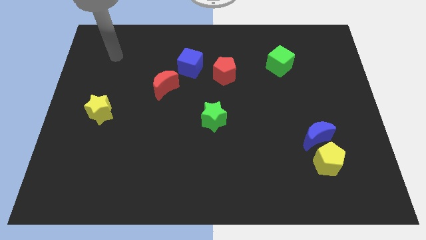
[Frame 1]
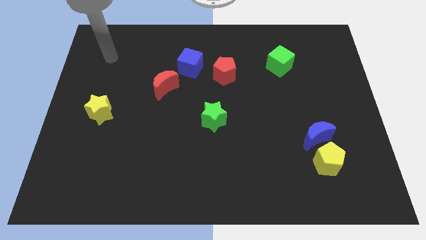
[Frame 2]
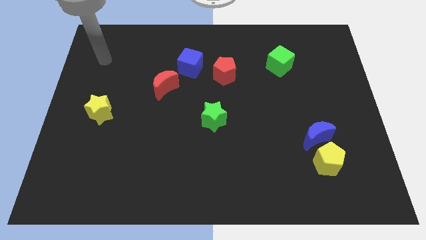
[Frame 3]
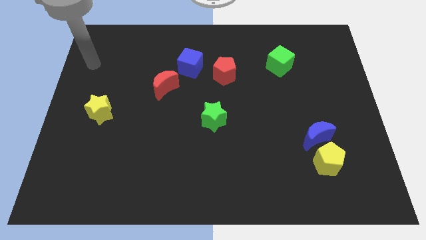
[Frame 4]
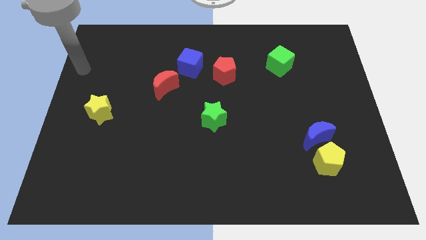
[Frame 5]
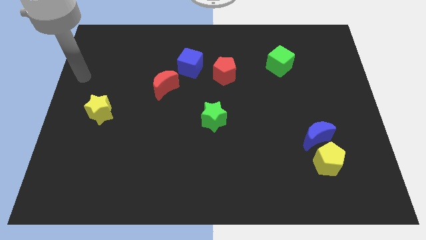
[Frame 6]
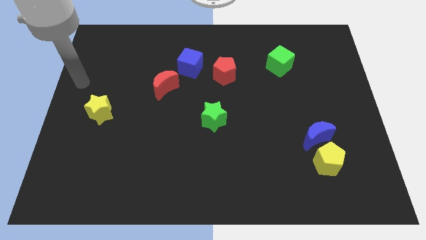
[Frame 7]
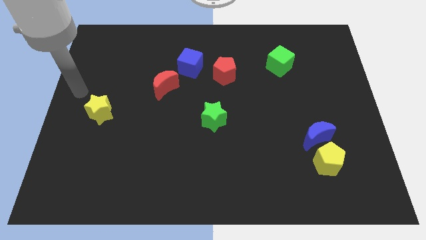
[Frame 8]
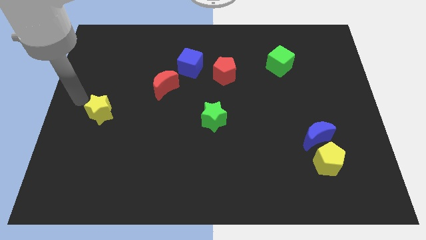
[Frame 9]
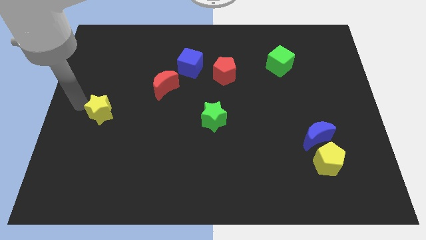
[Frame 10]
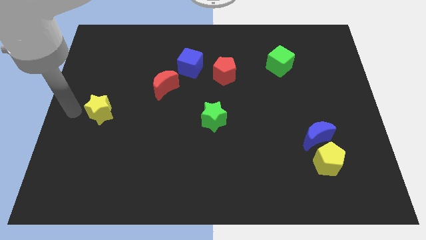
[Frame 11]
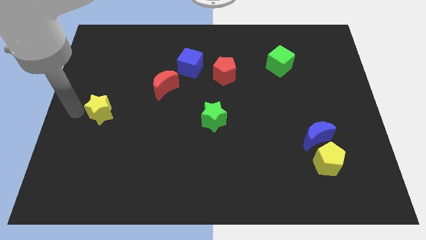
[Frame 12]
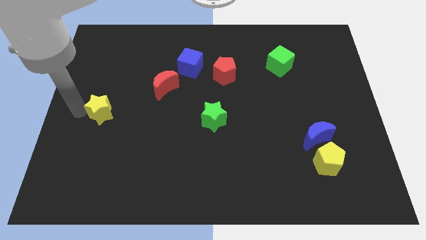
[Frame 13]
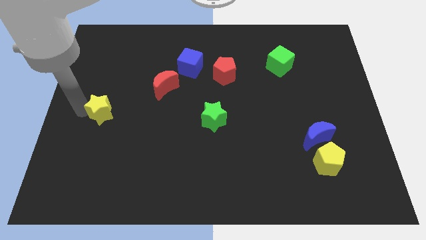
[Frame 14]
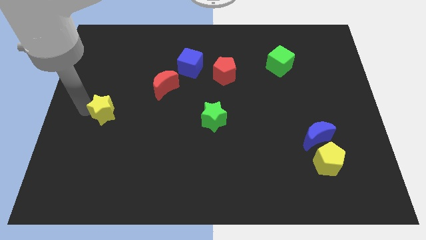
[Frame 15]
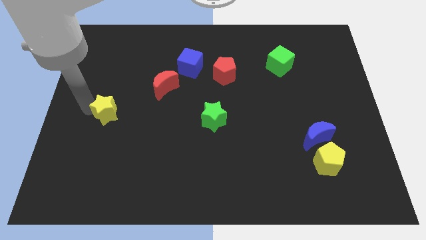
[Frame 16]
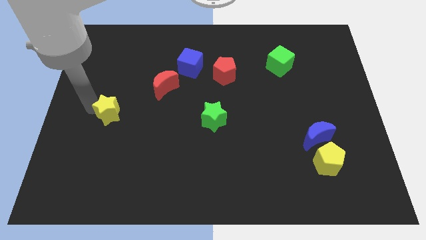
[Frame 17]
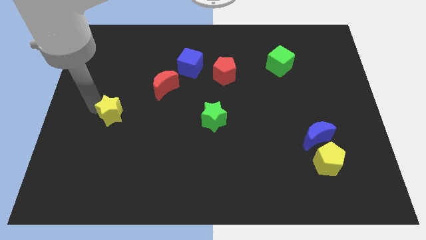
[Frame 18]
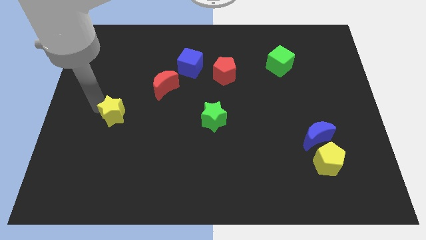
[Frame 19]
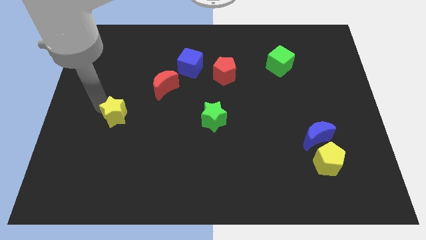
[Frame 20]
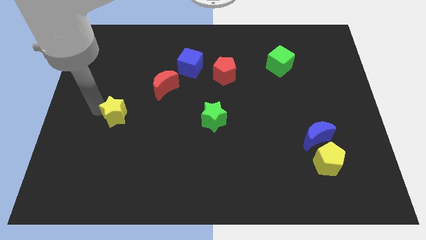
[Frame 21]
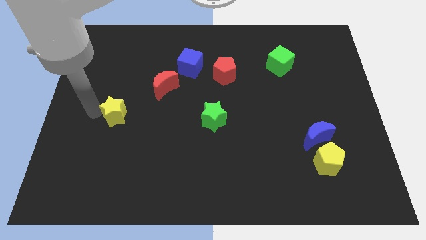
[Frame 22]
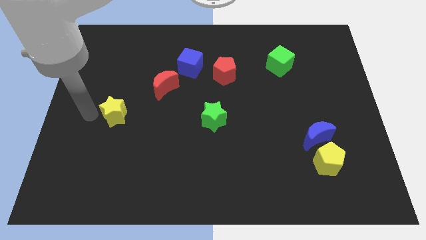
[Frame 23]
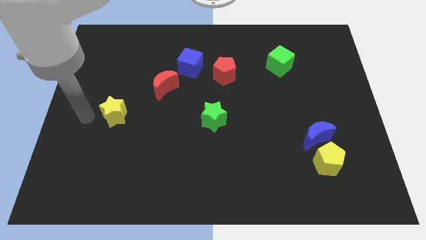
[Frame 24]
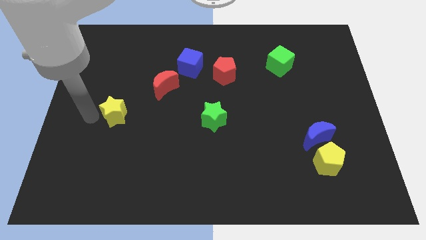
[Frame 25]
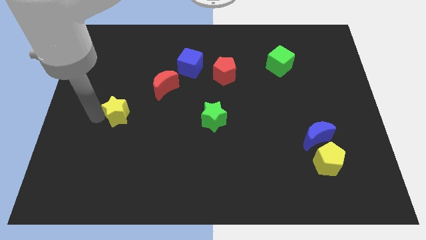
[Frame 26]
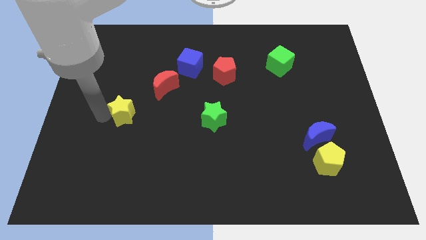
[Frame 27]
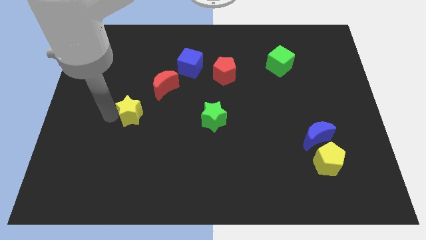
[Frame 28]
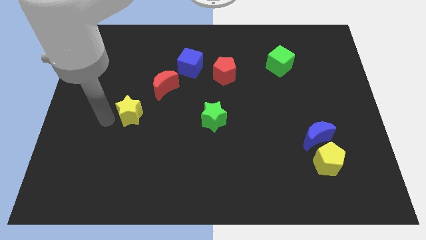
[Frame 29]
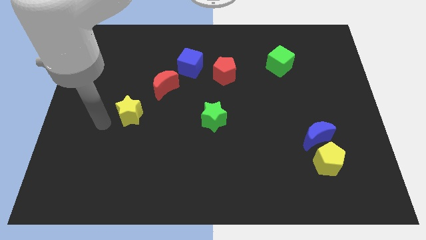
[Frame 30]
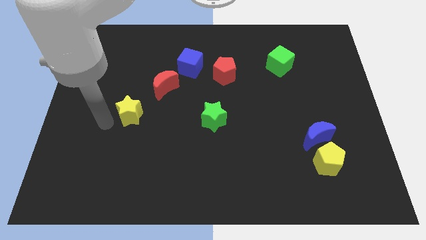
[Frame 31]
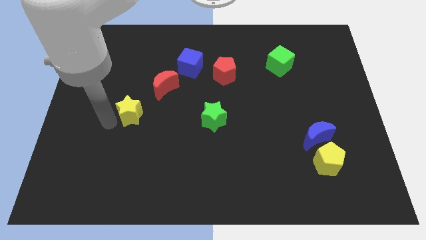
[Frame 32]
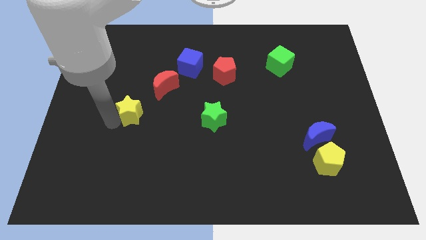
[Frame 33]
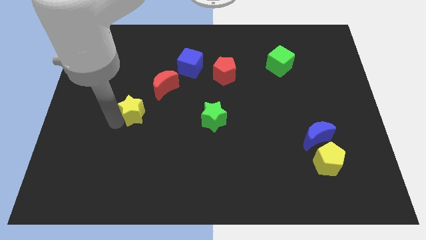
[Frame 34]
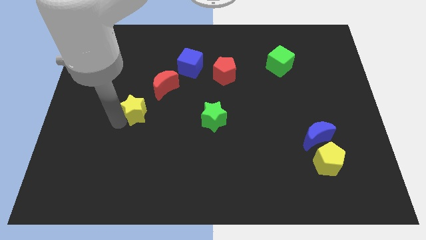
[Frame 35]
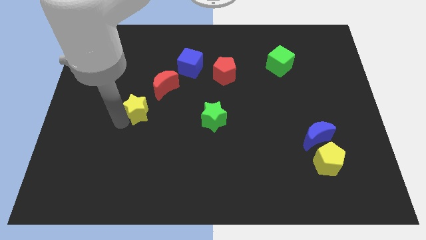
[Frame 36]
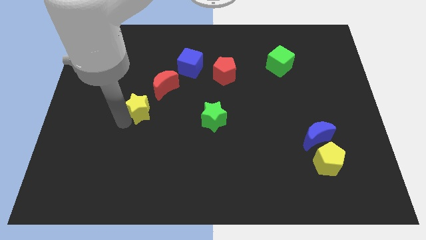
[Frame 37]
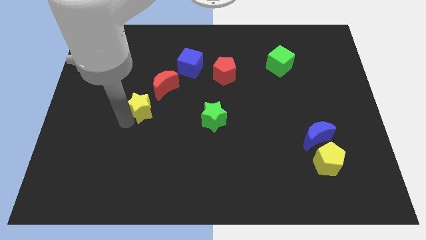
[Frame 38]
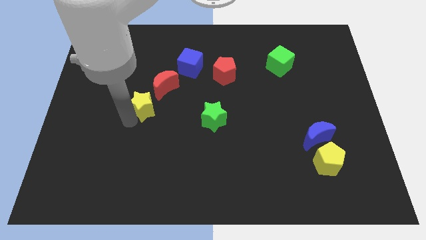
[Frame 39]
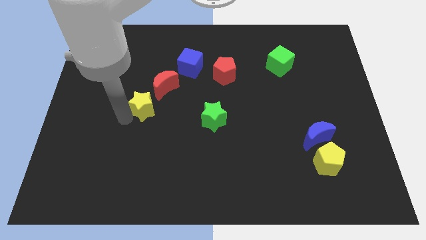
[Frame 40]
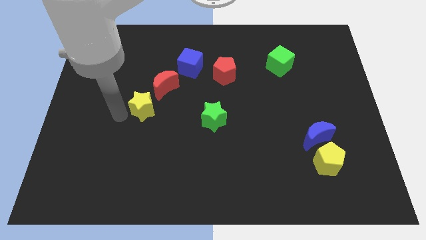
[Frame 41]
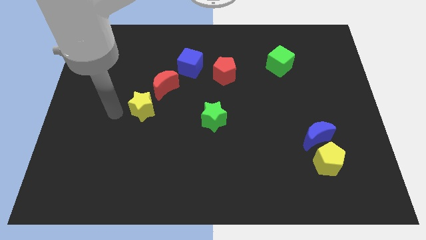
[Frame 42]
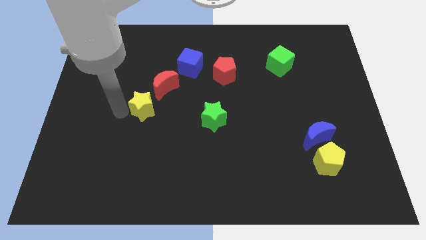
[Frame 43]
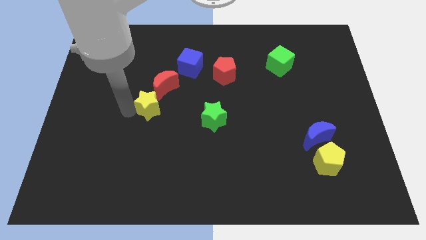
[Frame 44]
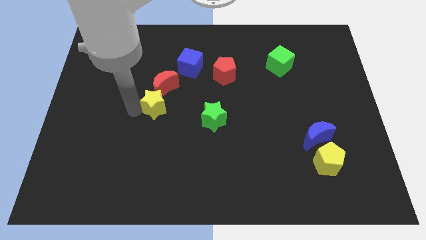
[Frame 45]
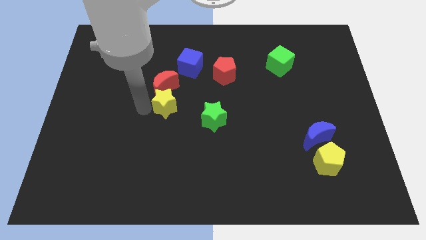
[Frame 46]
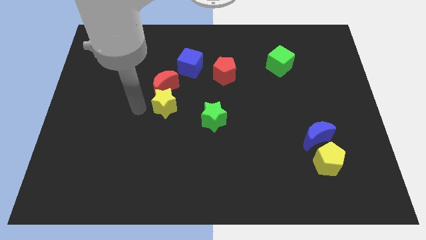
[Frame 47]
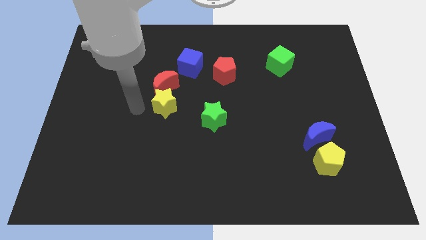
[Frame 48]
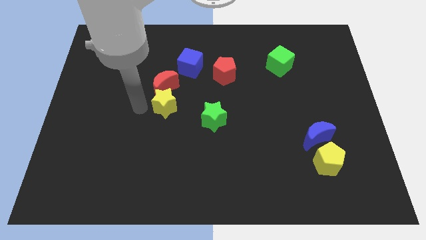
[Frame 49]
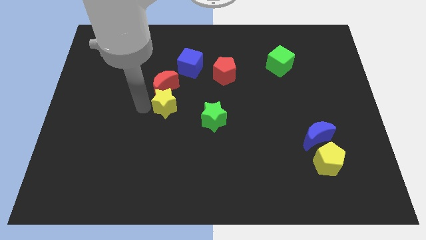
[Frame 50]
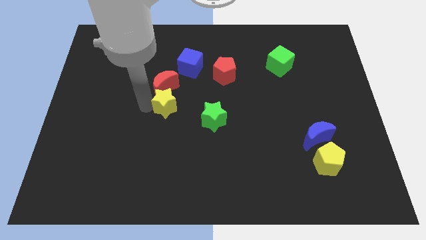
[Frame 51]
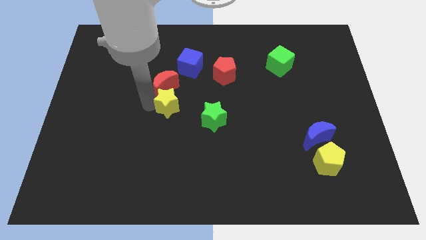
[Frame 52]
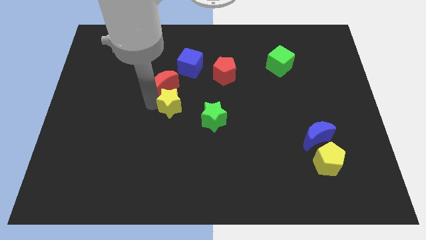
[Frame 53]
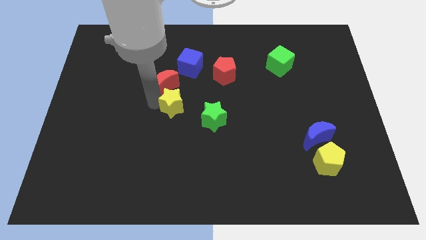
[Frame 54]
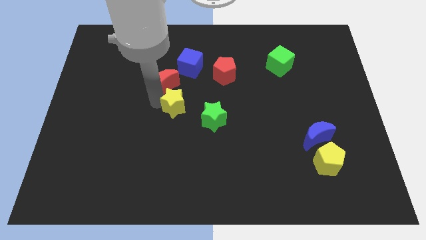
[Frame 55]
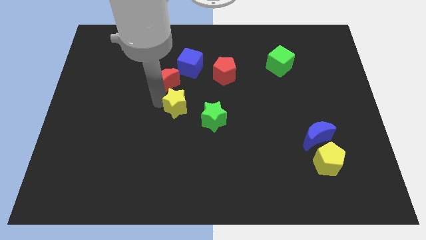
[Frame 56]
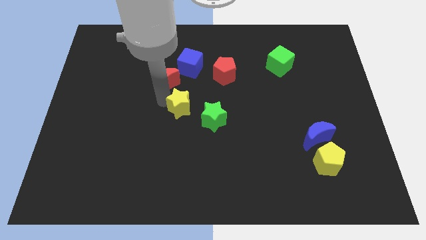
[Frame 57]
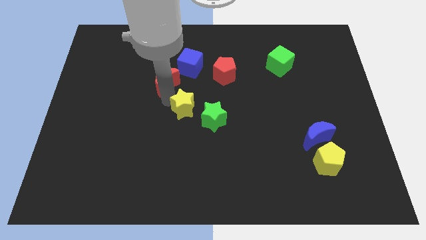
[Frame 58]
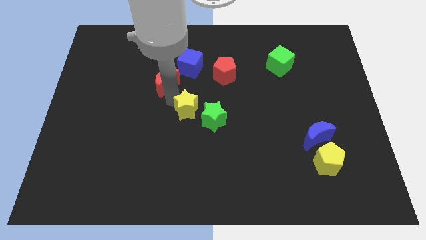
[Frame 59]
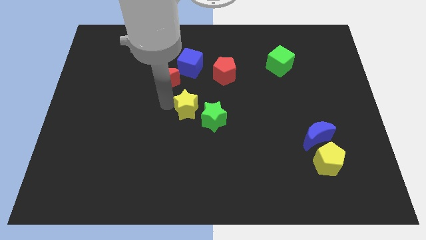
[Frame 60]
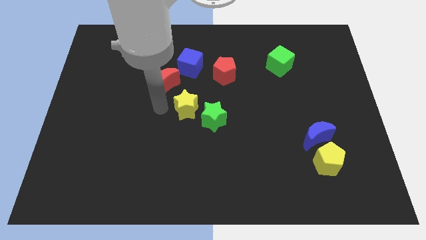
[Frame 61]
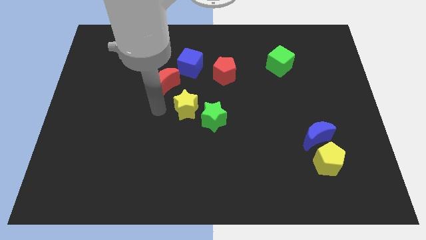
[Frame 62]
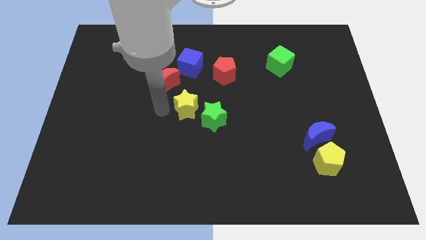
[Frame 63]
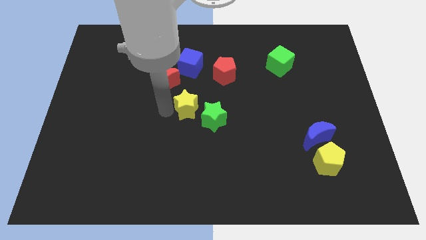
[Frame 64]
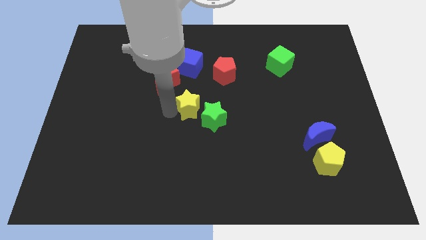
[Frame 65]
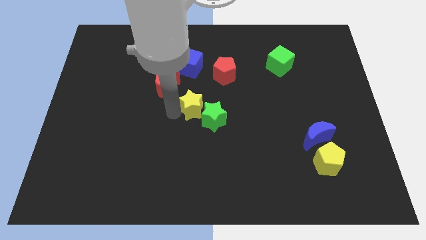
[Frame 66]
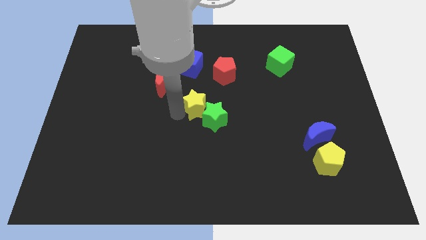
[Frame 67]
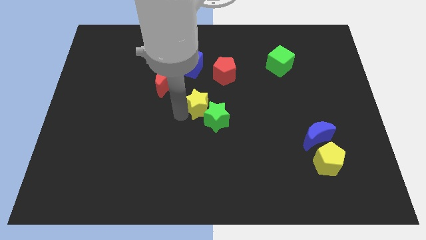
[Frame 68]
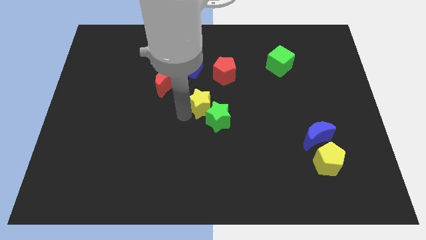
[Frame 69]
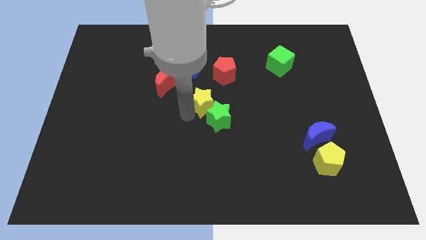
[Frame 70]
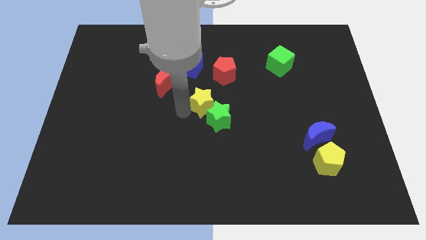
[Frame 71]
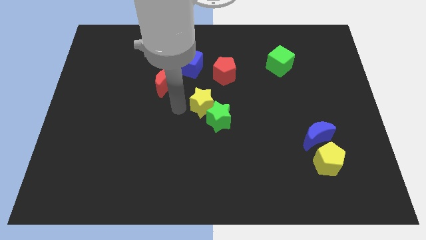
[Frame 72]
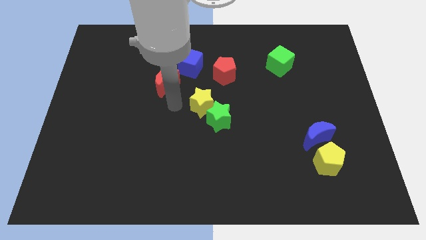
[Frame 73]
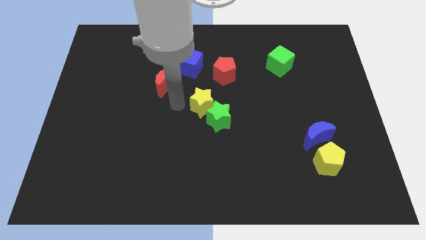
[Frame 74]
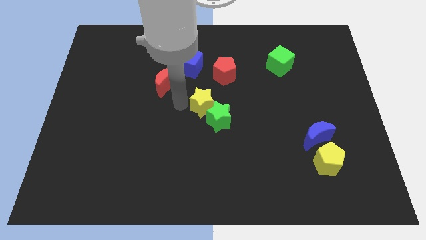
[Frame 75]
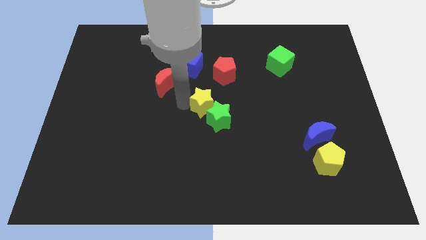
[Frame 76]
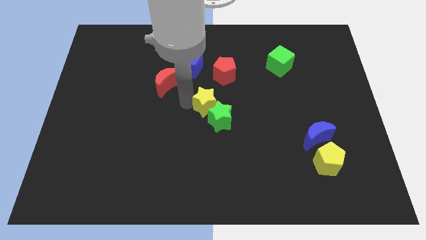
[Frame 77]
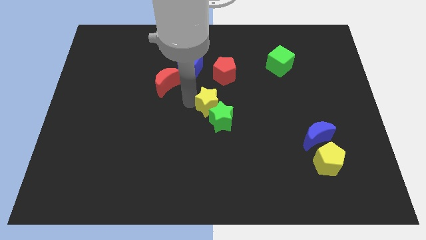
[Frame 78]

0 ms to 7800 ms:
slide the yellow star to the bottom of the red pentagon

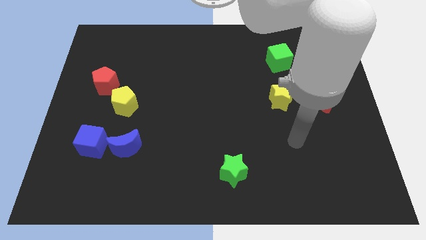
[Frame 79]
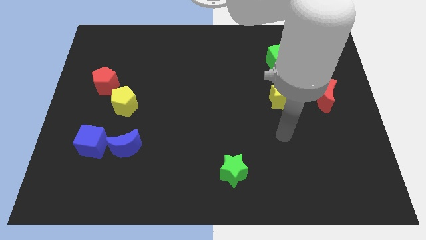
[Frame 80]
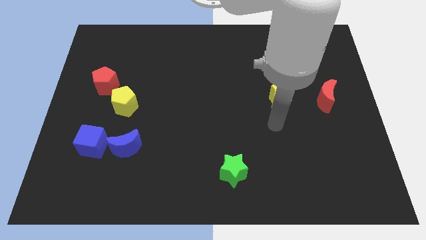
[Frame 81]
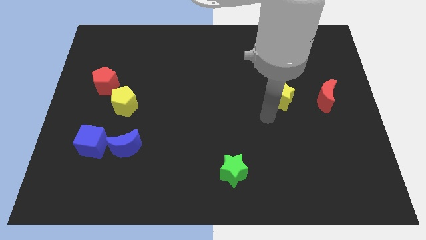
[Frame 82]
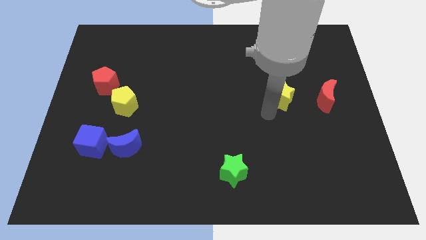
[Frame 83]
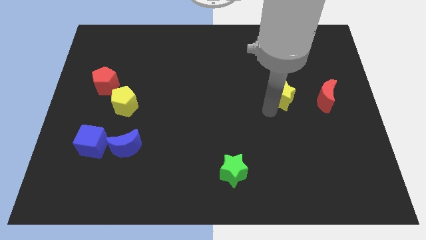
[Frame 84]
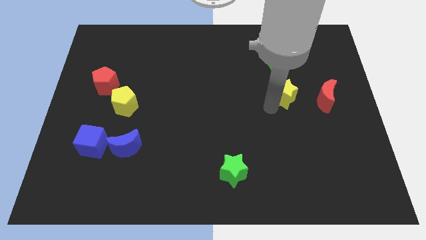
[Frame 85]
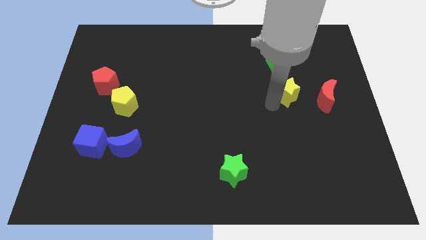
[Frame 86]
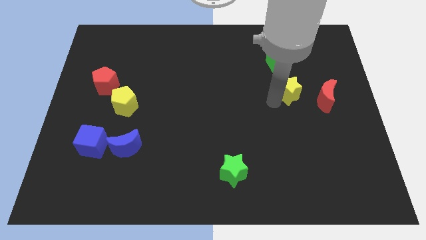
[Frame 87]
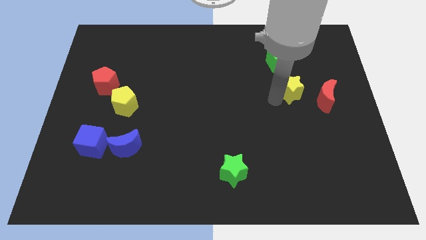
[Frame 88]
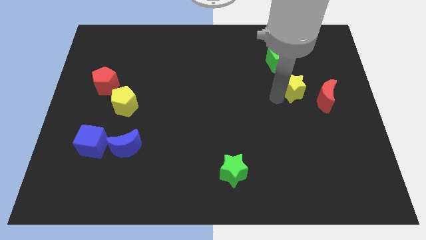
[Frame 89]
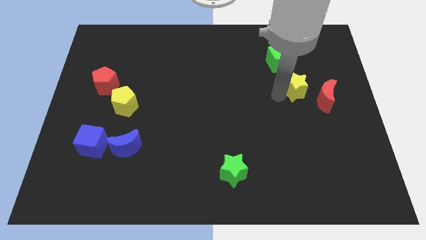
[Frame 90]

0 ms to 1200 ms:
slide the yellow star diagonally down and to the right of the green cube
